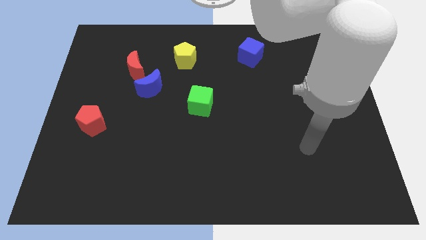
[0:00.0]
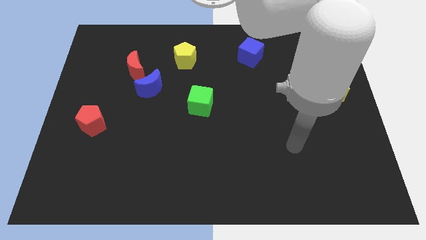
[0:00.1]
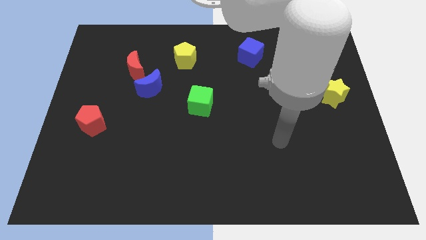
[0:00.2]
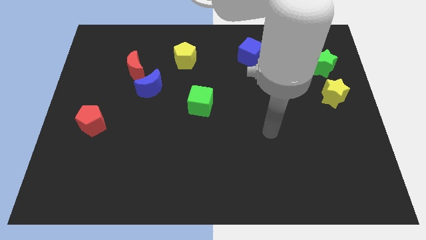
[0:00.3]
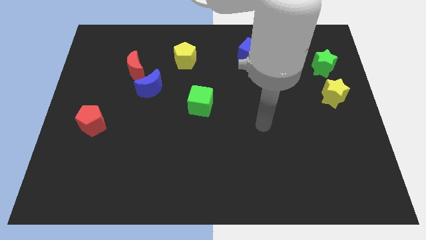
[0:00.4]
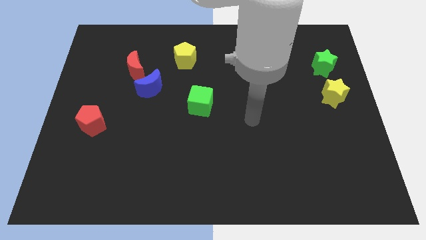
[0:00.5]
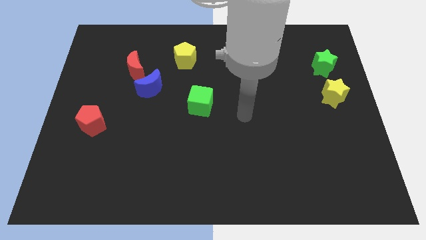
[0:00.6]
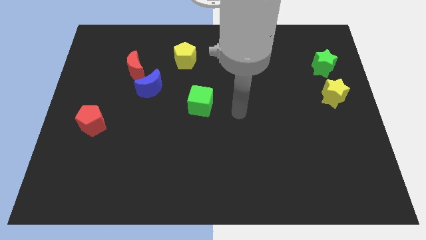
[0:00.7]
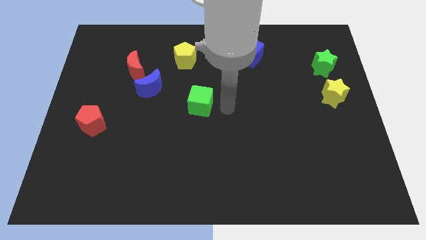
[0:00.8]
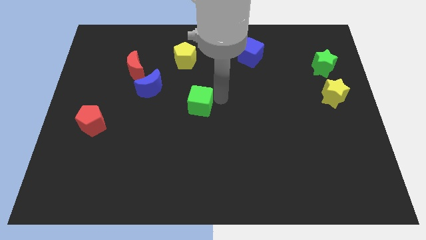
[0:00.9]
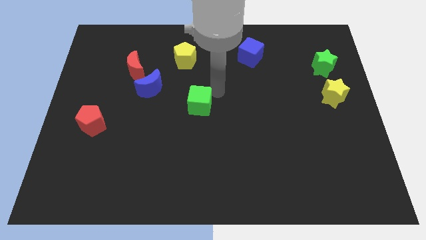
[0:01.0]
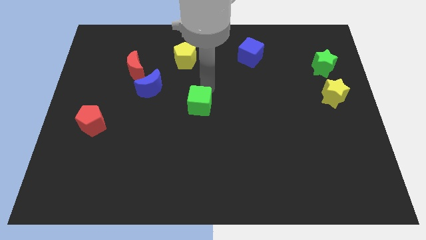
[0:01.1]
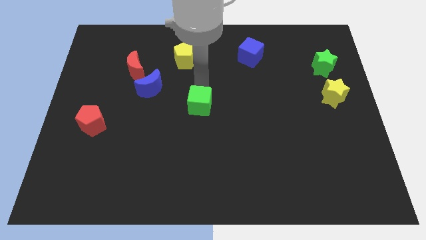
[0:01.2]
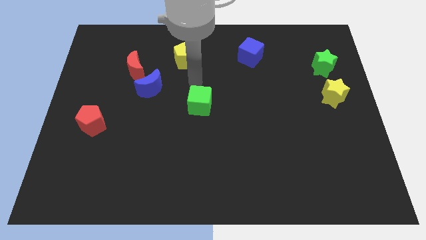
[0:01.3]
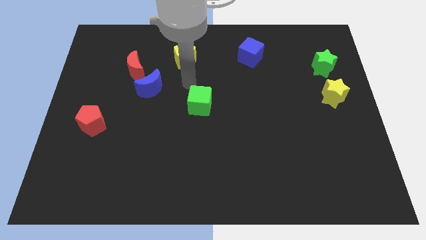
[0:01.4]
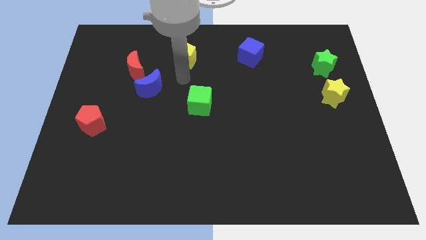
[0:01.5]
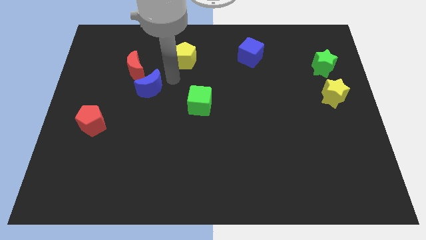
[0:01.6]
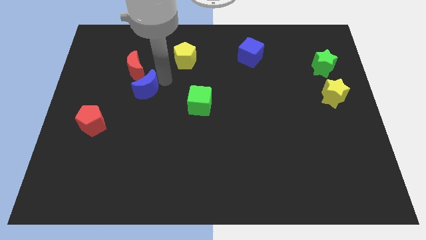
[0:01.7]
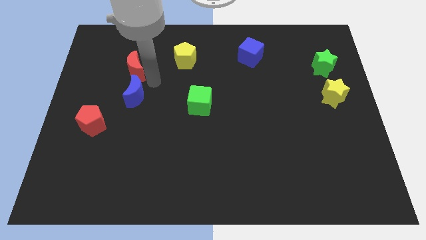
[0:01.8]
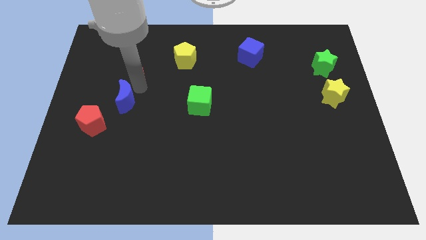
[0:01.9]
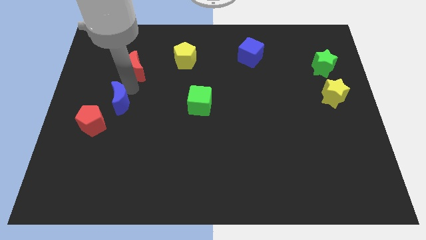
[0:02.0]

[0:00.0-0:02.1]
separate the red moon from the blue moon

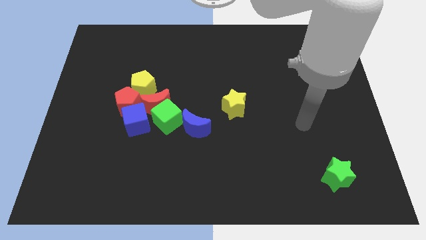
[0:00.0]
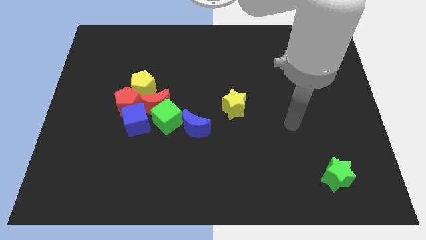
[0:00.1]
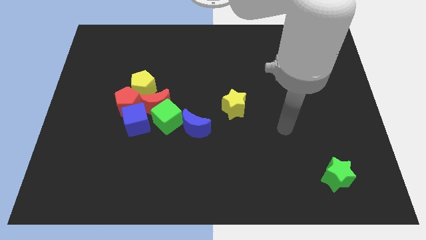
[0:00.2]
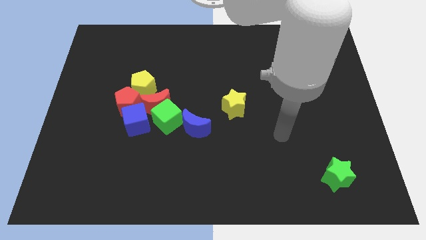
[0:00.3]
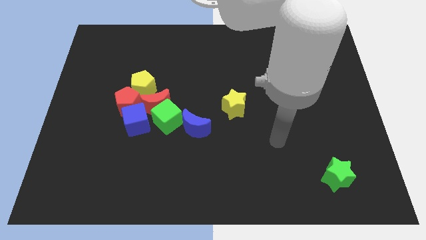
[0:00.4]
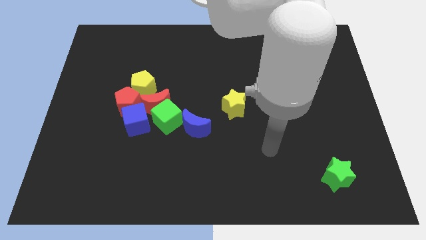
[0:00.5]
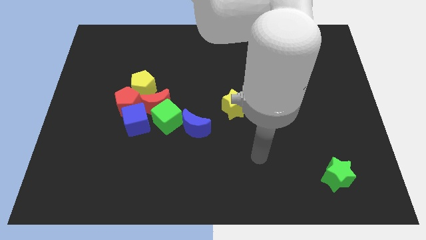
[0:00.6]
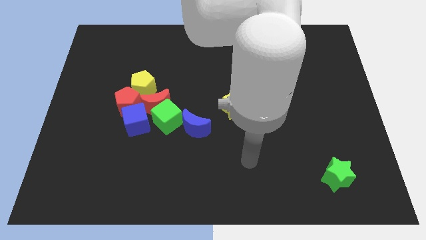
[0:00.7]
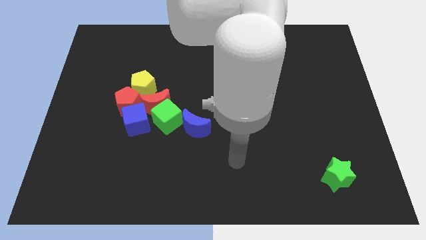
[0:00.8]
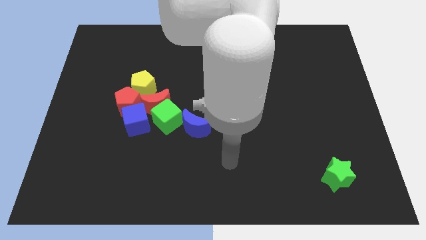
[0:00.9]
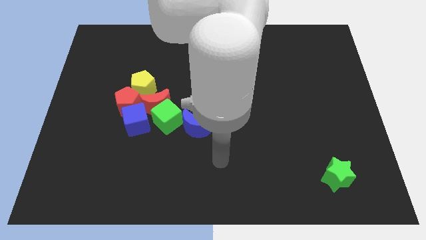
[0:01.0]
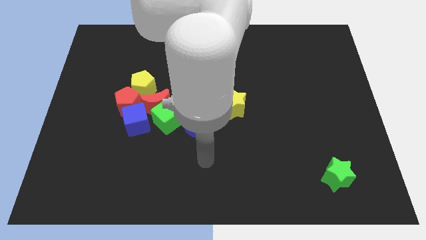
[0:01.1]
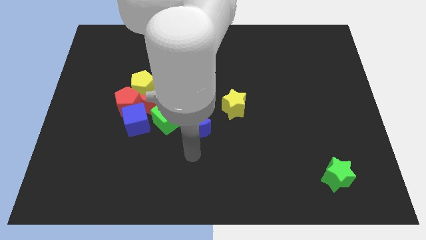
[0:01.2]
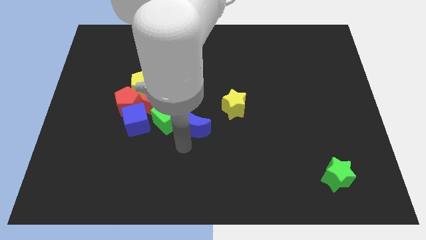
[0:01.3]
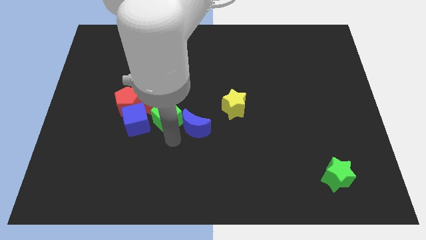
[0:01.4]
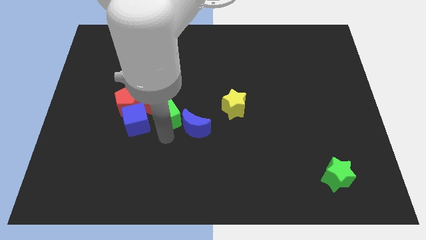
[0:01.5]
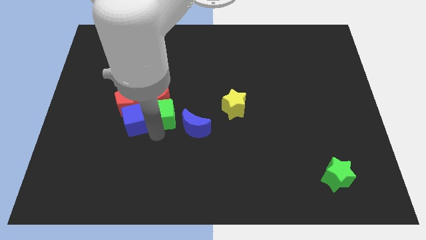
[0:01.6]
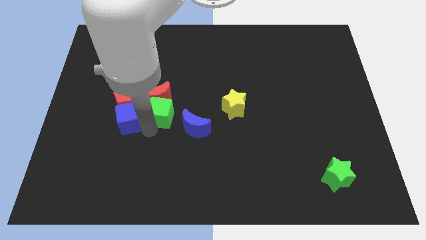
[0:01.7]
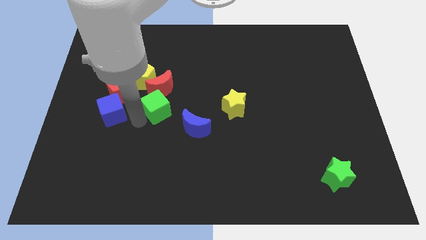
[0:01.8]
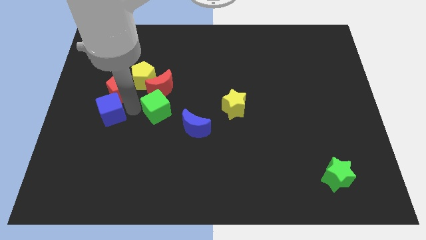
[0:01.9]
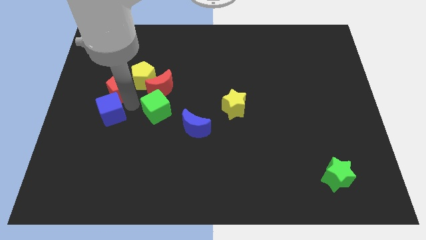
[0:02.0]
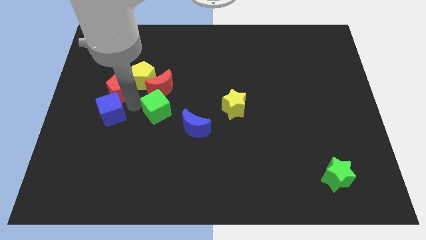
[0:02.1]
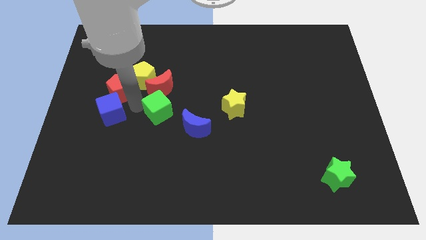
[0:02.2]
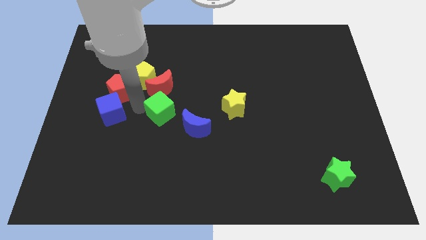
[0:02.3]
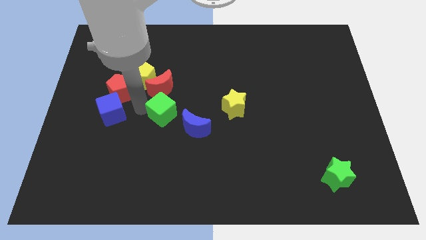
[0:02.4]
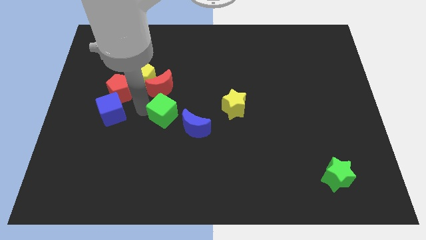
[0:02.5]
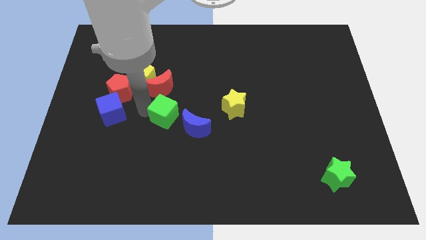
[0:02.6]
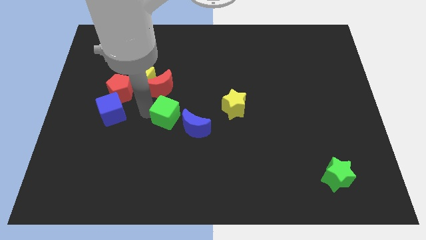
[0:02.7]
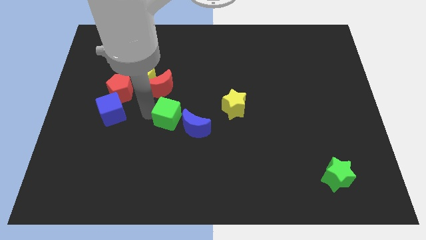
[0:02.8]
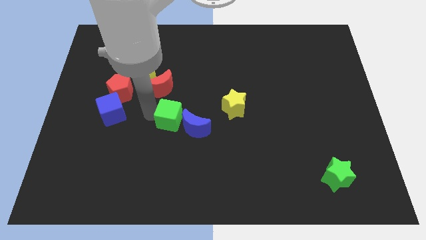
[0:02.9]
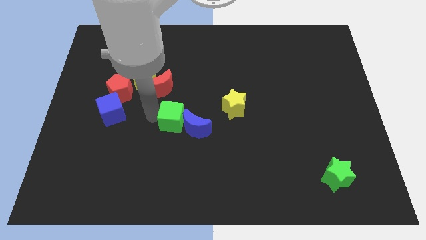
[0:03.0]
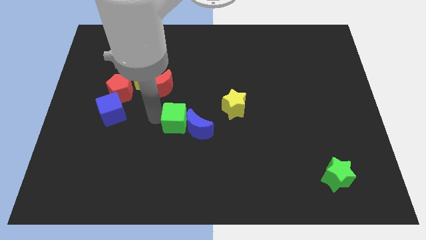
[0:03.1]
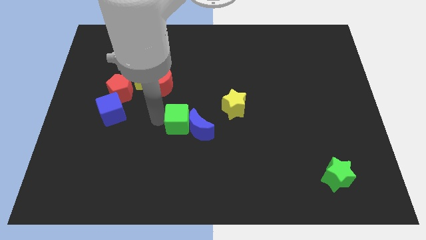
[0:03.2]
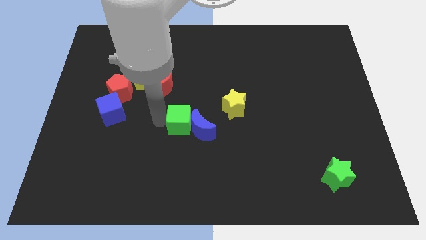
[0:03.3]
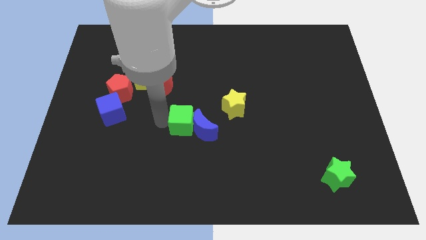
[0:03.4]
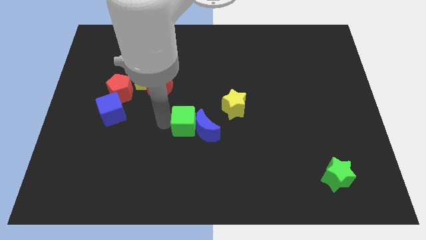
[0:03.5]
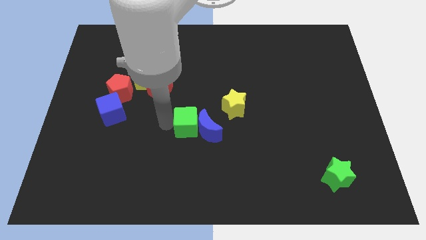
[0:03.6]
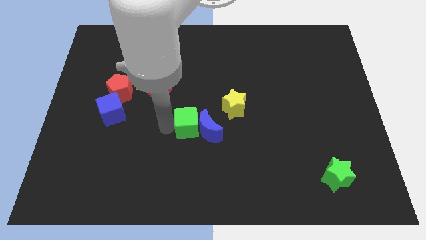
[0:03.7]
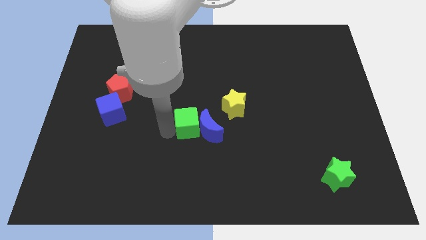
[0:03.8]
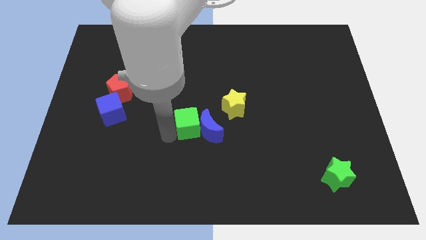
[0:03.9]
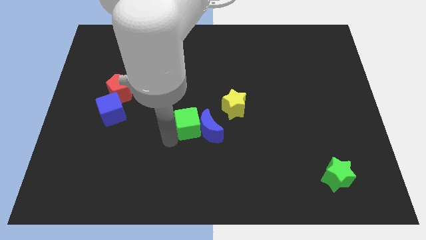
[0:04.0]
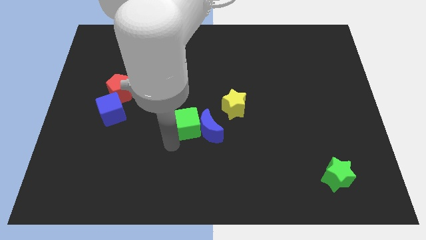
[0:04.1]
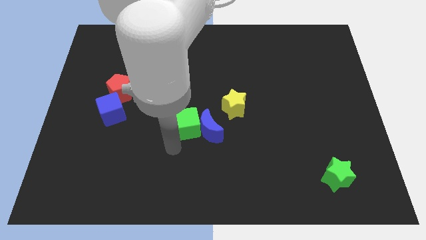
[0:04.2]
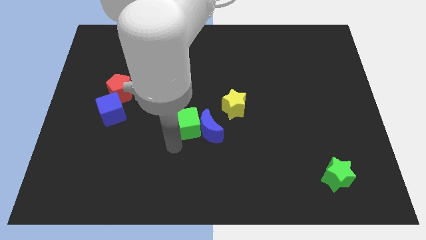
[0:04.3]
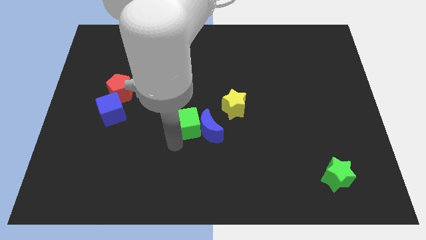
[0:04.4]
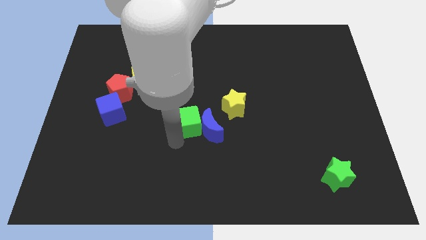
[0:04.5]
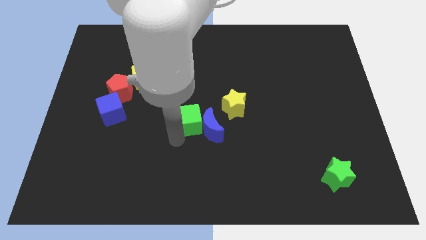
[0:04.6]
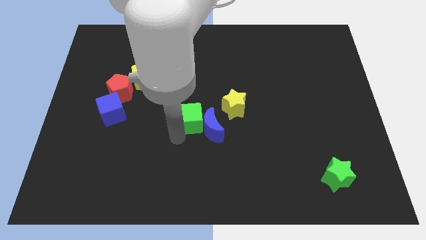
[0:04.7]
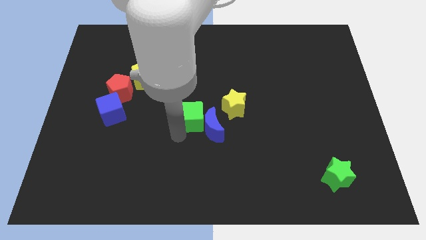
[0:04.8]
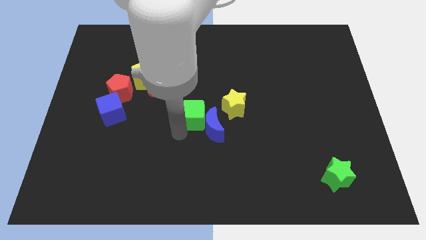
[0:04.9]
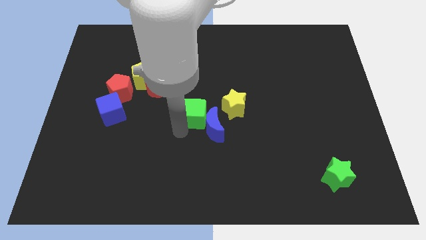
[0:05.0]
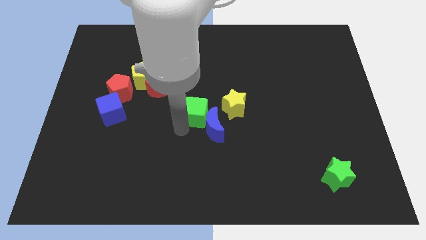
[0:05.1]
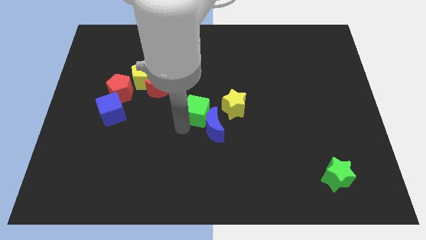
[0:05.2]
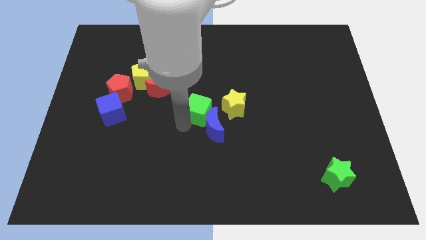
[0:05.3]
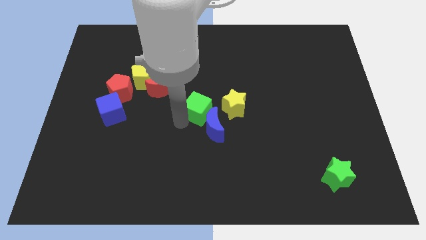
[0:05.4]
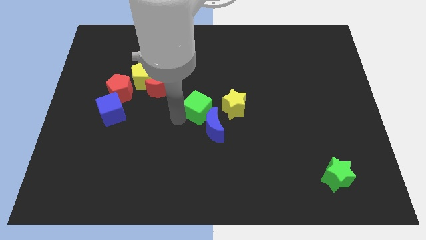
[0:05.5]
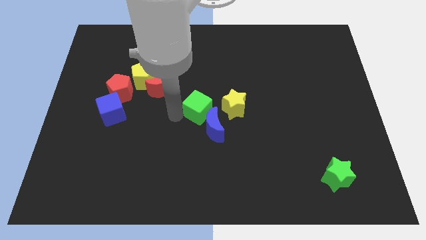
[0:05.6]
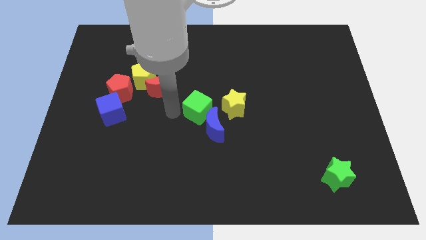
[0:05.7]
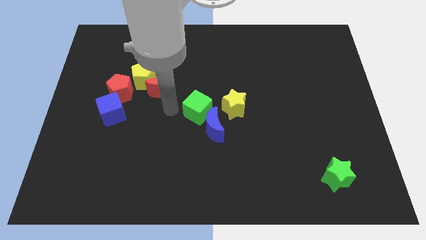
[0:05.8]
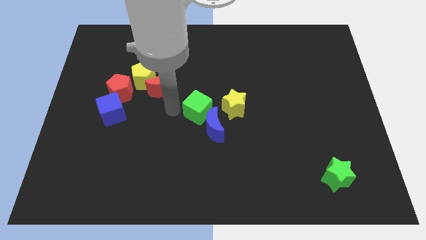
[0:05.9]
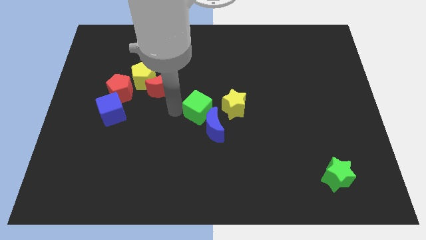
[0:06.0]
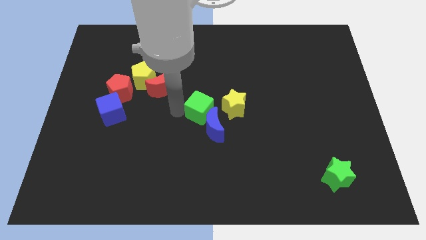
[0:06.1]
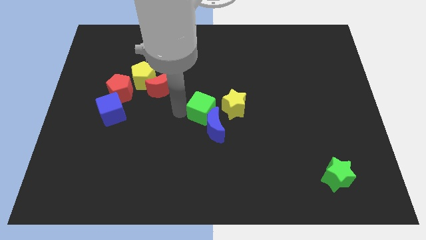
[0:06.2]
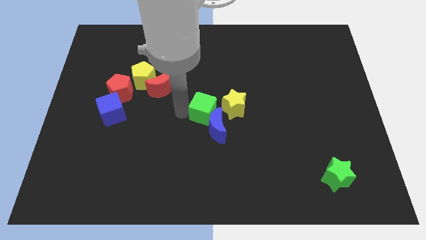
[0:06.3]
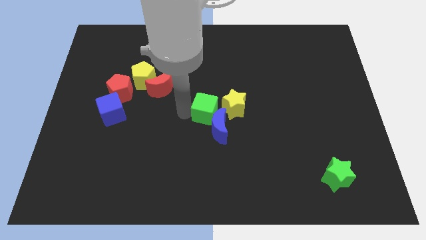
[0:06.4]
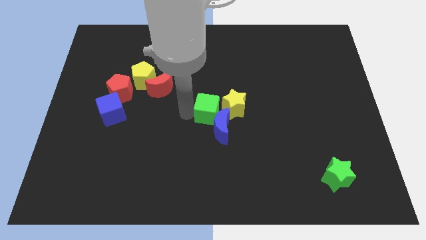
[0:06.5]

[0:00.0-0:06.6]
move the green cube away from the red moon, blue moon, and blue cube

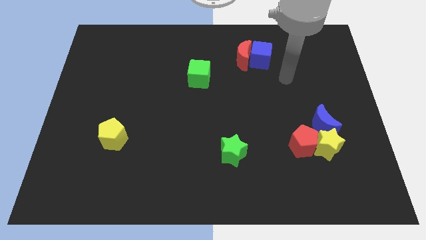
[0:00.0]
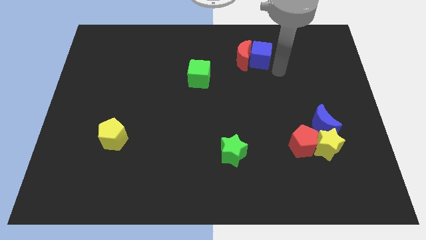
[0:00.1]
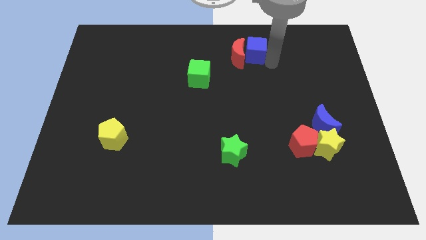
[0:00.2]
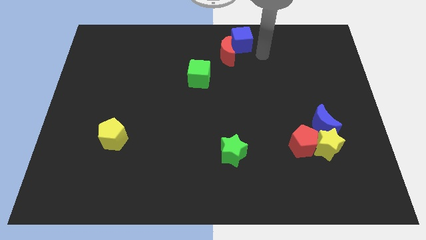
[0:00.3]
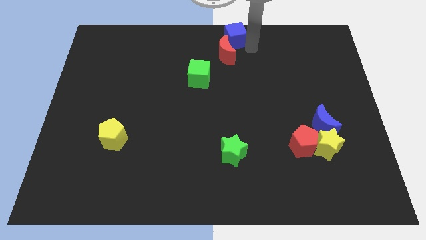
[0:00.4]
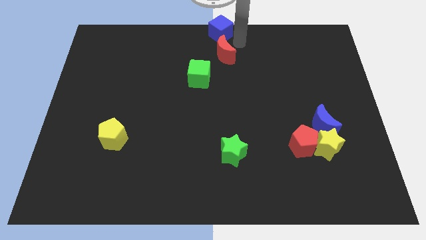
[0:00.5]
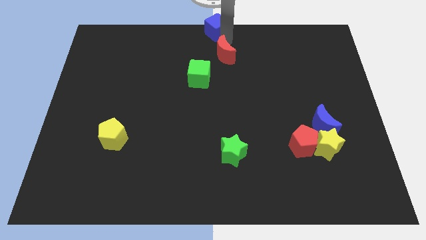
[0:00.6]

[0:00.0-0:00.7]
pull the red moon apart from the blue cube
